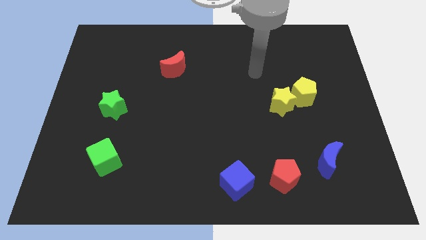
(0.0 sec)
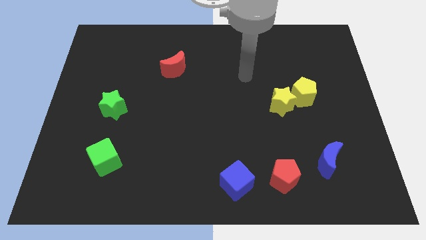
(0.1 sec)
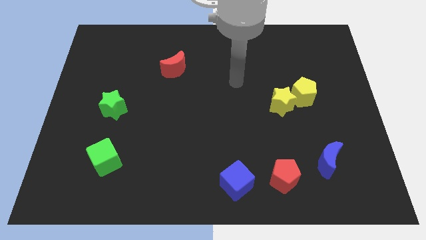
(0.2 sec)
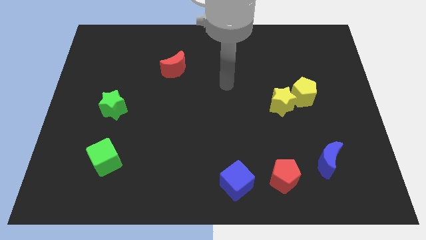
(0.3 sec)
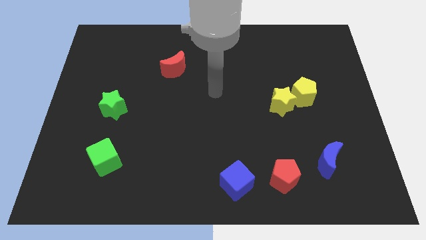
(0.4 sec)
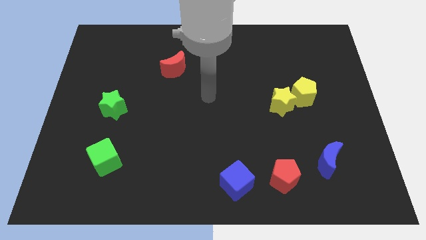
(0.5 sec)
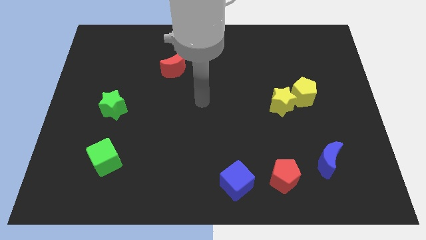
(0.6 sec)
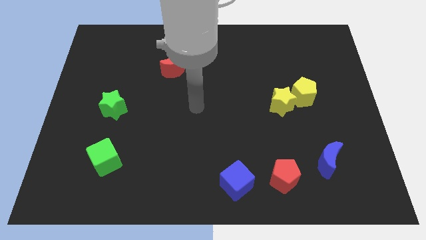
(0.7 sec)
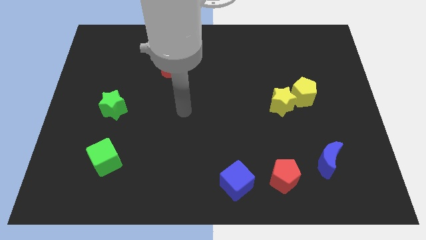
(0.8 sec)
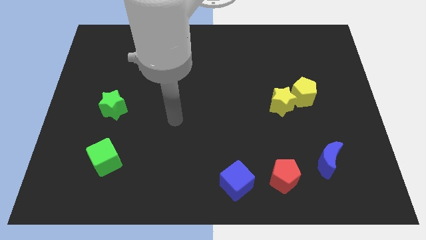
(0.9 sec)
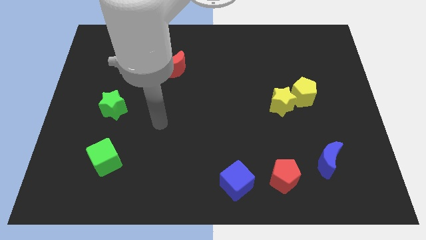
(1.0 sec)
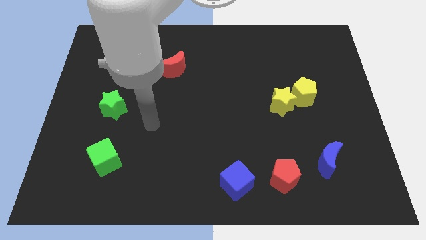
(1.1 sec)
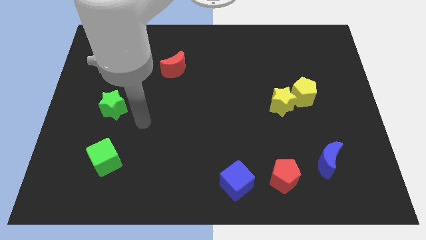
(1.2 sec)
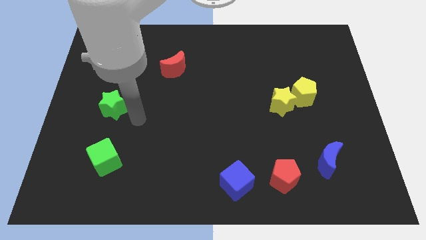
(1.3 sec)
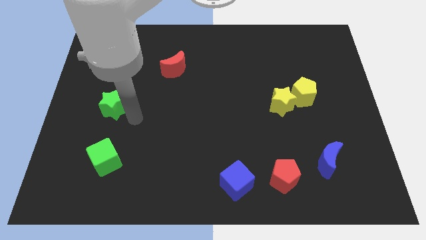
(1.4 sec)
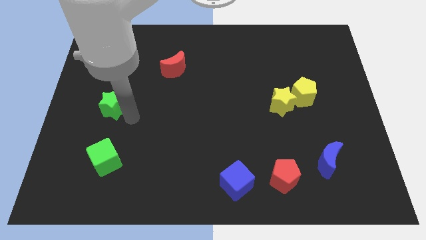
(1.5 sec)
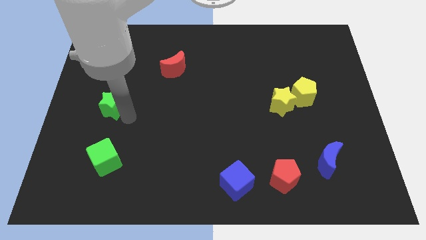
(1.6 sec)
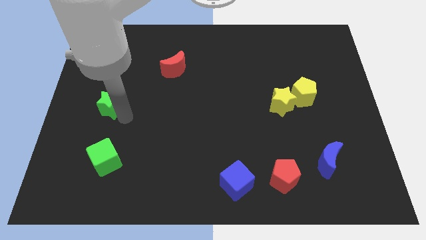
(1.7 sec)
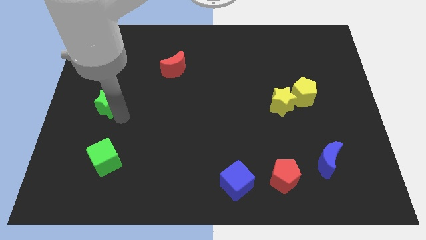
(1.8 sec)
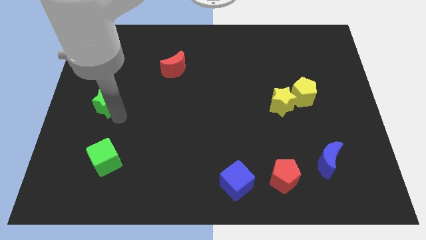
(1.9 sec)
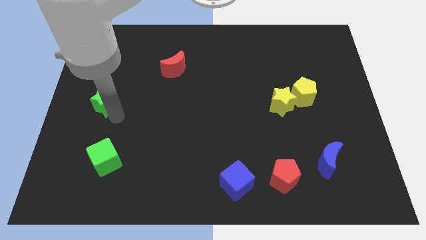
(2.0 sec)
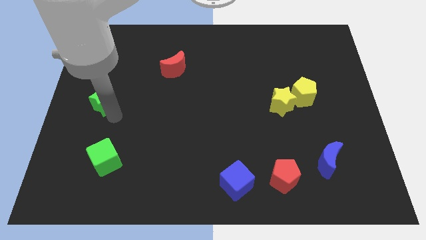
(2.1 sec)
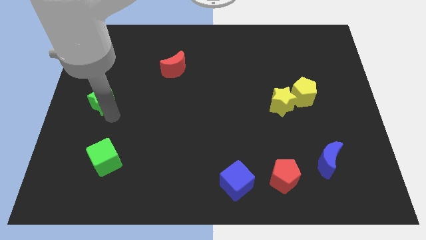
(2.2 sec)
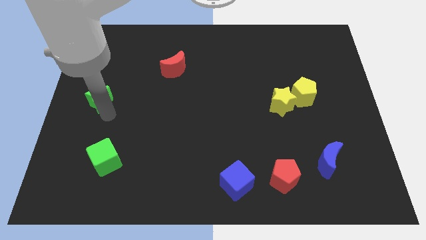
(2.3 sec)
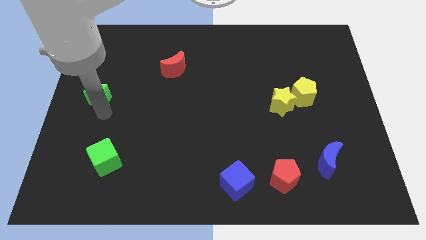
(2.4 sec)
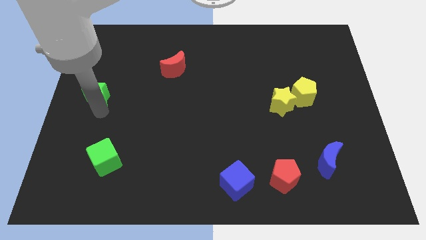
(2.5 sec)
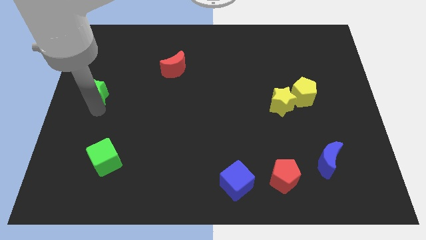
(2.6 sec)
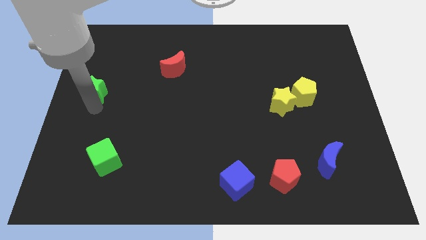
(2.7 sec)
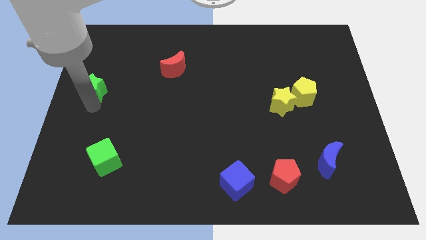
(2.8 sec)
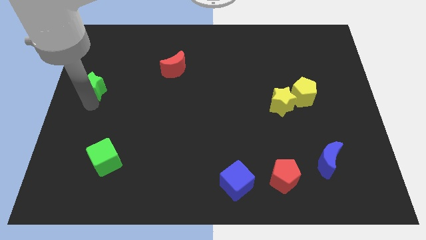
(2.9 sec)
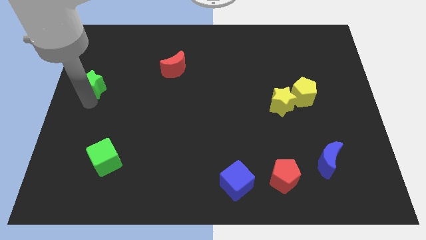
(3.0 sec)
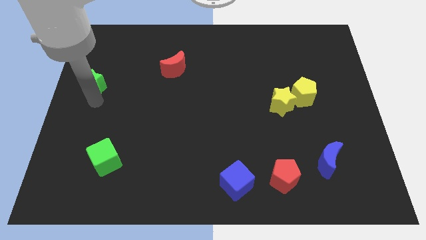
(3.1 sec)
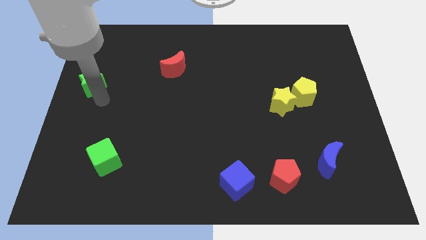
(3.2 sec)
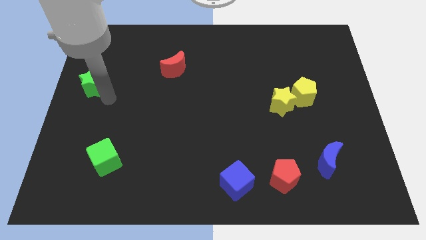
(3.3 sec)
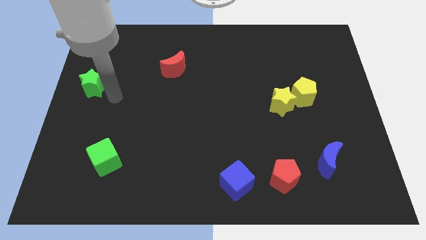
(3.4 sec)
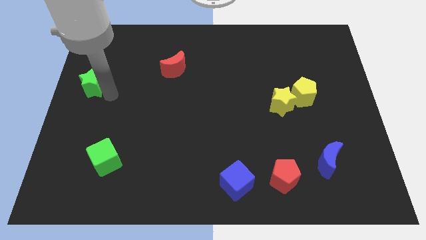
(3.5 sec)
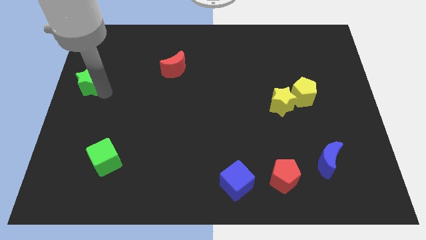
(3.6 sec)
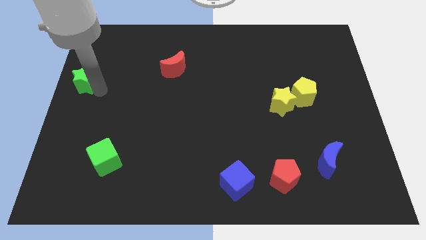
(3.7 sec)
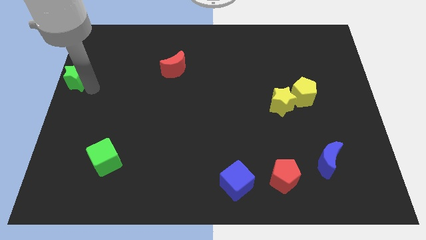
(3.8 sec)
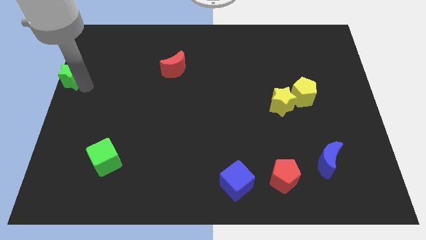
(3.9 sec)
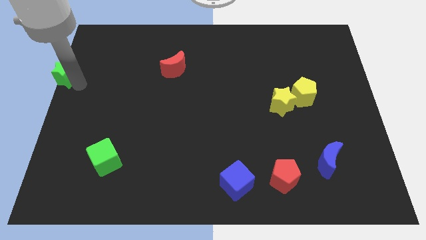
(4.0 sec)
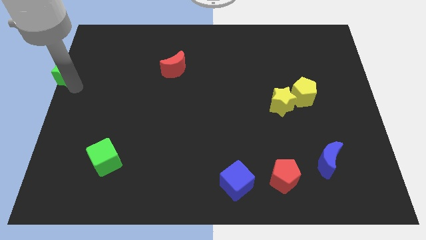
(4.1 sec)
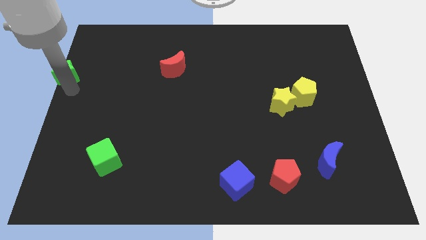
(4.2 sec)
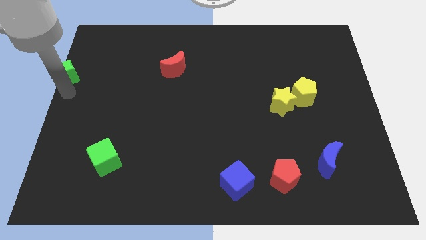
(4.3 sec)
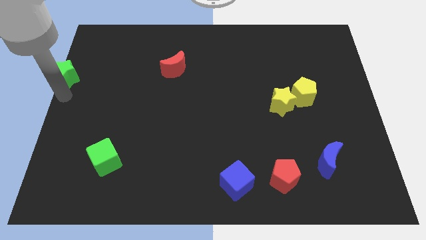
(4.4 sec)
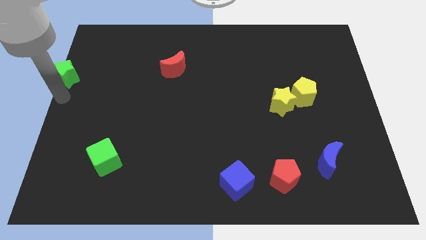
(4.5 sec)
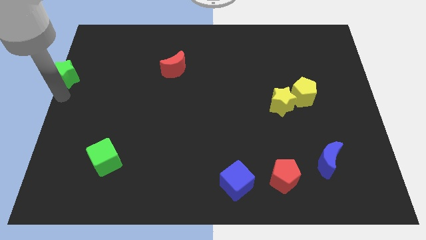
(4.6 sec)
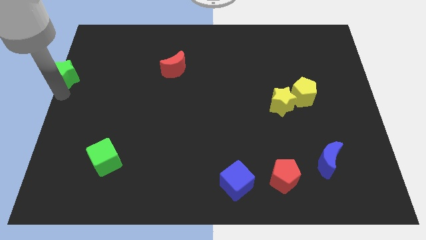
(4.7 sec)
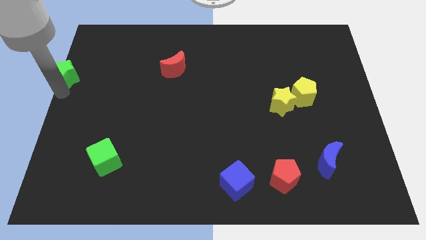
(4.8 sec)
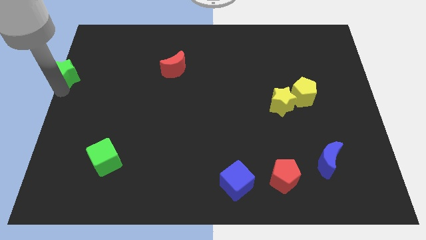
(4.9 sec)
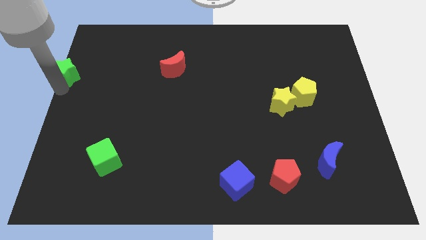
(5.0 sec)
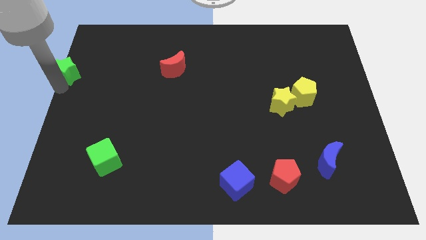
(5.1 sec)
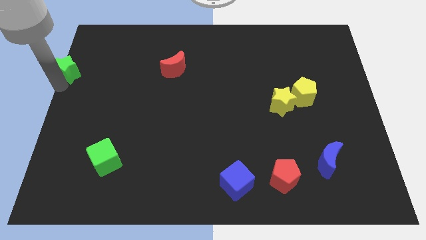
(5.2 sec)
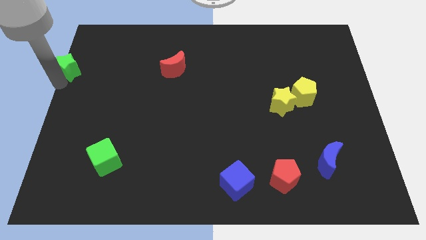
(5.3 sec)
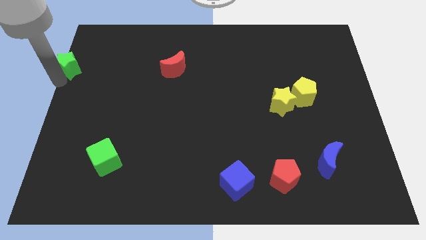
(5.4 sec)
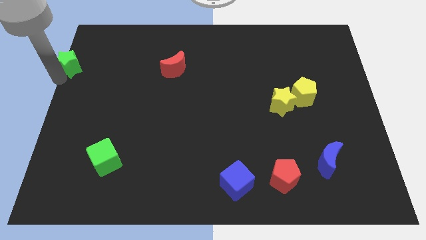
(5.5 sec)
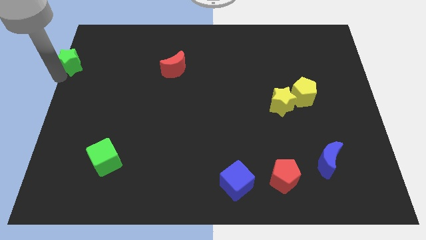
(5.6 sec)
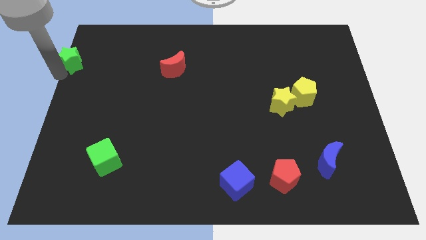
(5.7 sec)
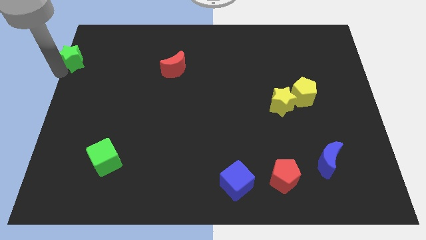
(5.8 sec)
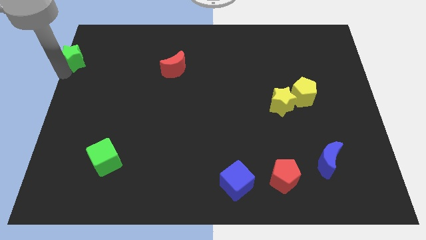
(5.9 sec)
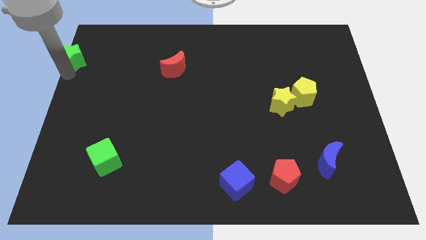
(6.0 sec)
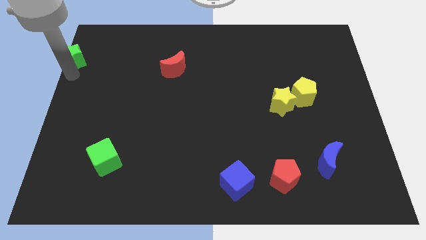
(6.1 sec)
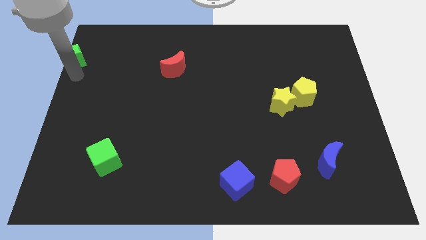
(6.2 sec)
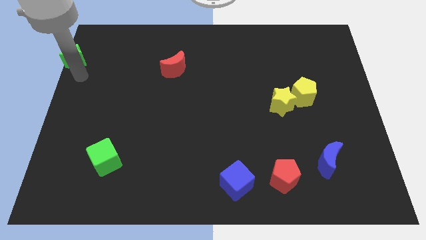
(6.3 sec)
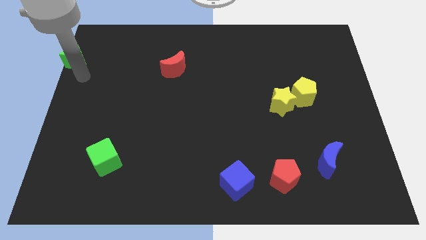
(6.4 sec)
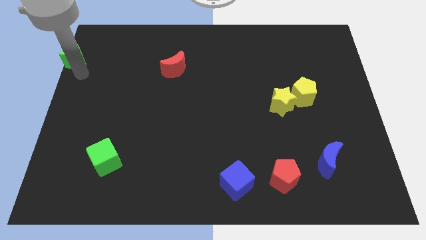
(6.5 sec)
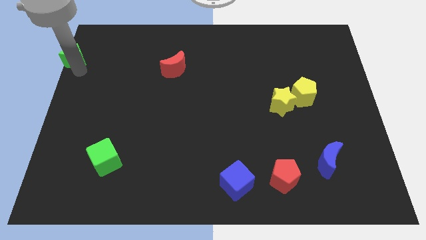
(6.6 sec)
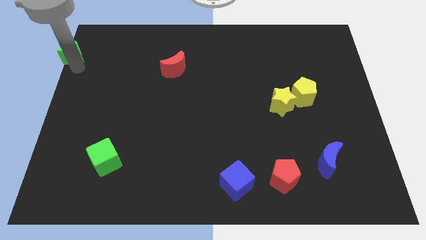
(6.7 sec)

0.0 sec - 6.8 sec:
push the green star to the top left corner

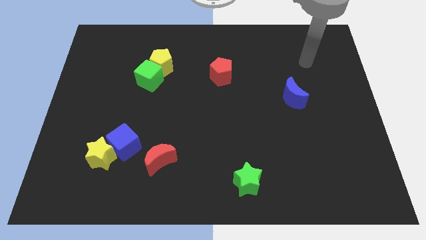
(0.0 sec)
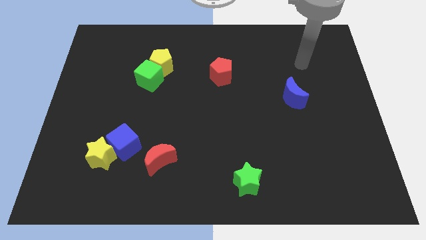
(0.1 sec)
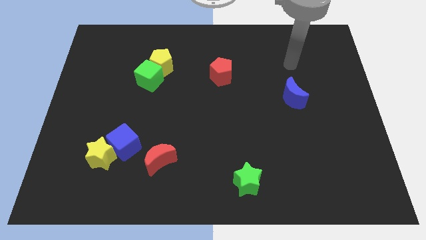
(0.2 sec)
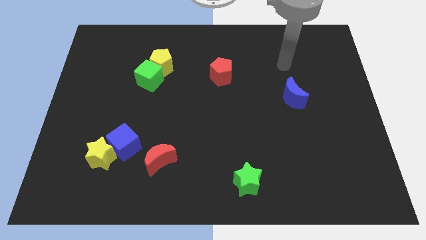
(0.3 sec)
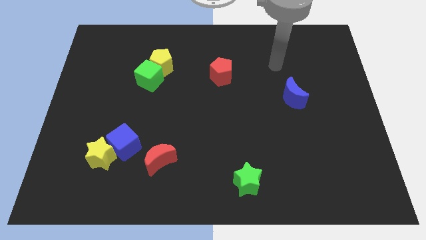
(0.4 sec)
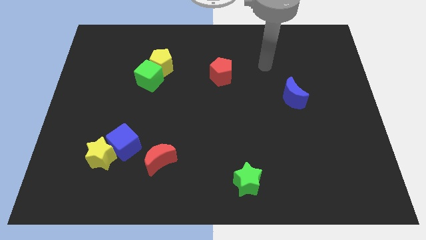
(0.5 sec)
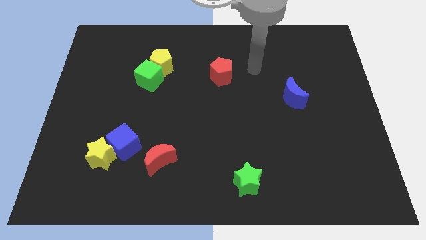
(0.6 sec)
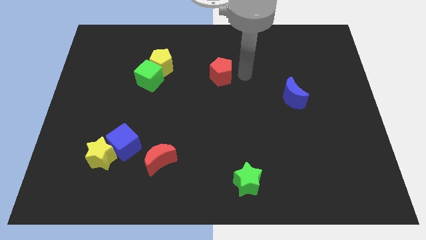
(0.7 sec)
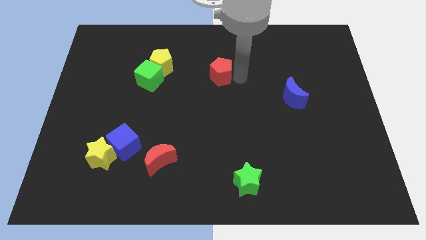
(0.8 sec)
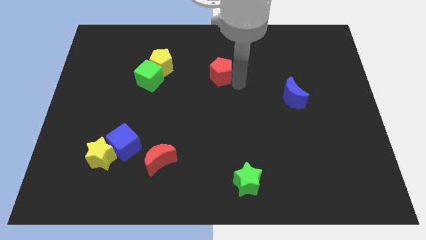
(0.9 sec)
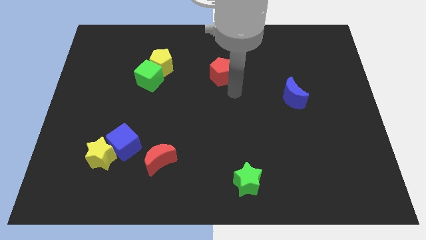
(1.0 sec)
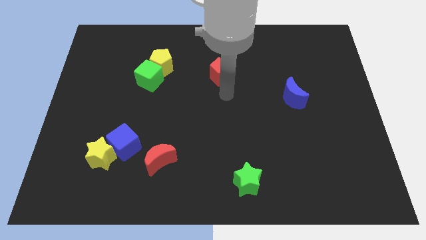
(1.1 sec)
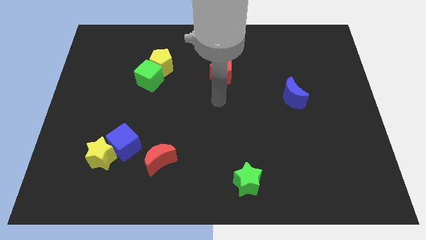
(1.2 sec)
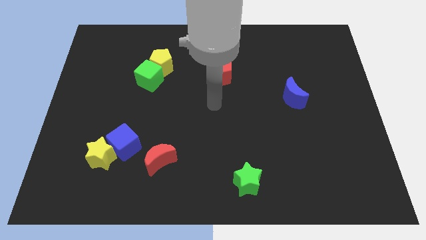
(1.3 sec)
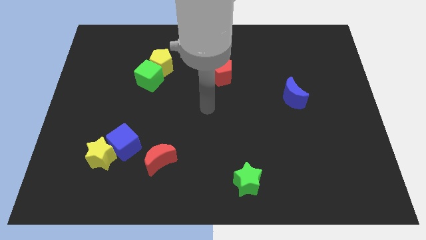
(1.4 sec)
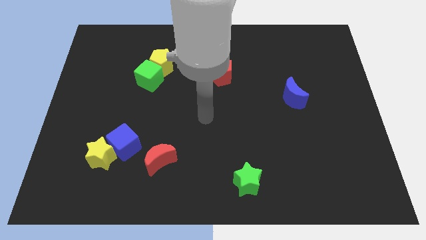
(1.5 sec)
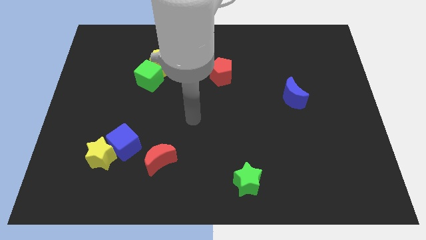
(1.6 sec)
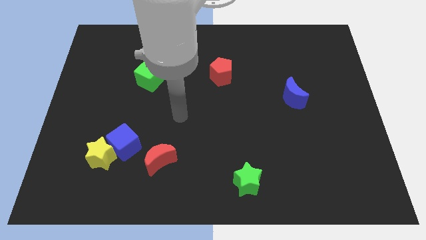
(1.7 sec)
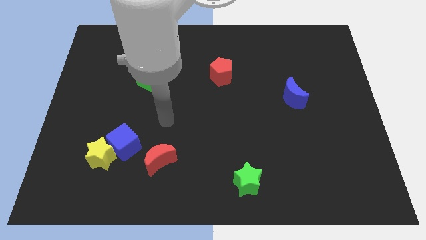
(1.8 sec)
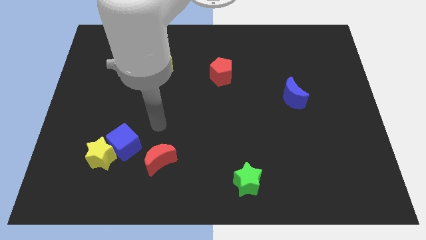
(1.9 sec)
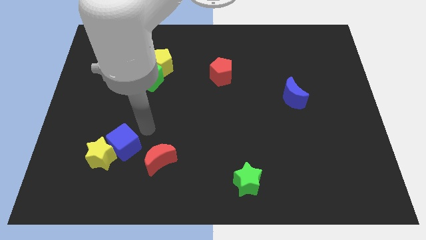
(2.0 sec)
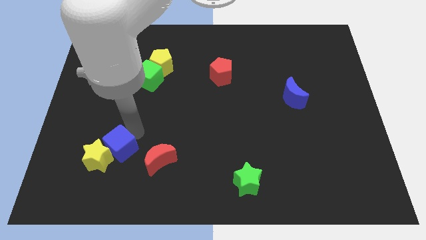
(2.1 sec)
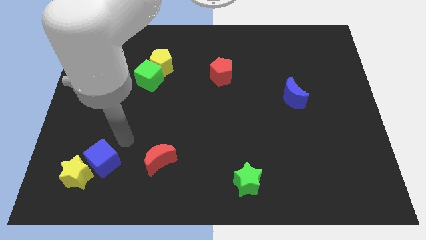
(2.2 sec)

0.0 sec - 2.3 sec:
push the yellow star to the bottom left corner
